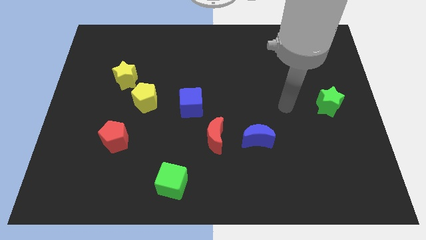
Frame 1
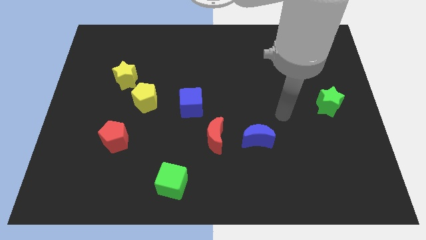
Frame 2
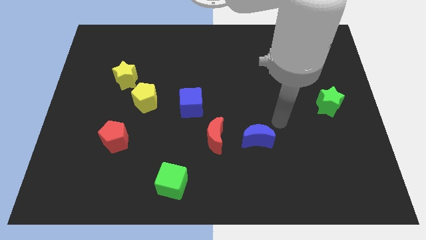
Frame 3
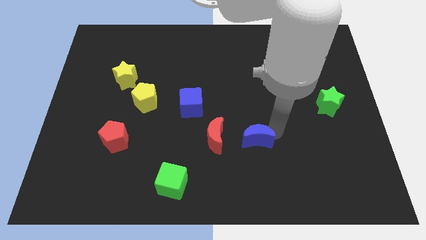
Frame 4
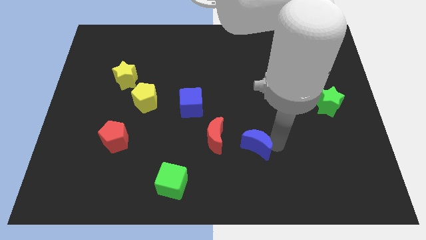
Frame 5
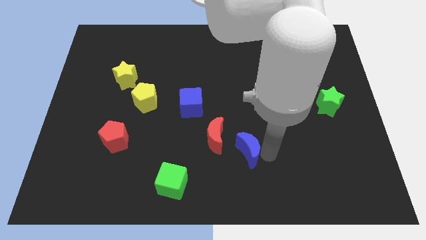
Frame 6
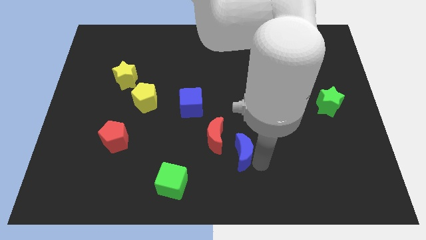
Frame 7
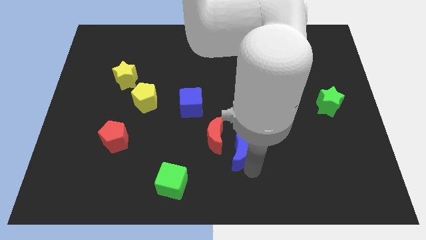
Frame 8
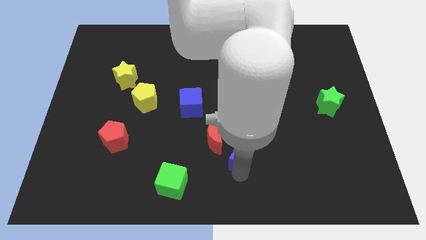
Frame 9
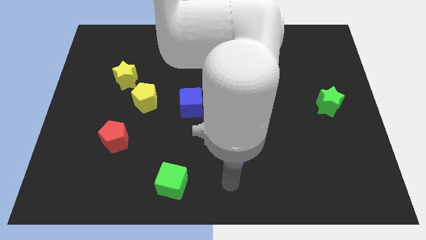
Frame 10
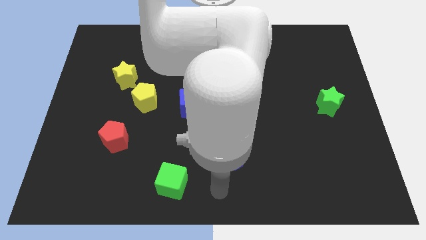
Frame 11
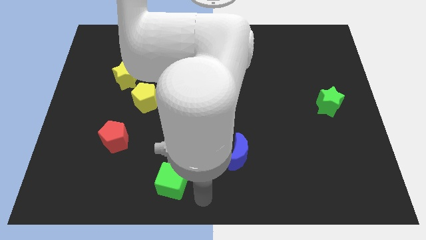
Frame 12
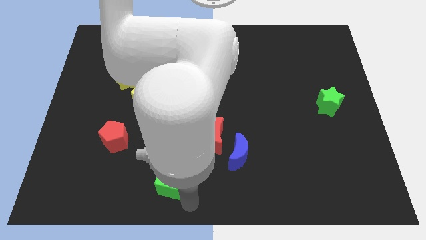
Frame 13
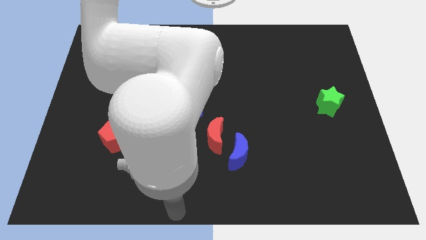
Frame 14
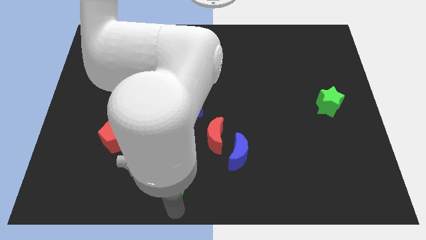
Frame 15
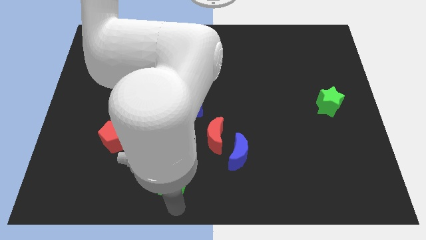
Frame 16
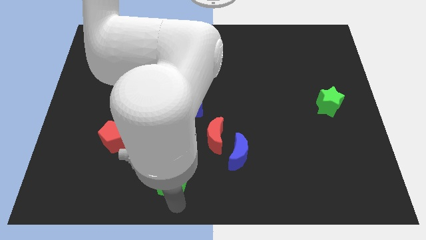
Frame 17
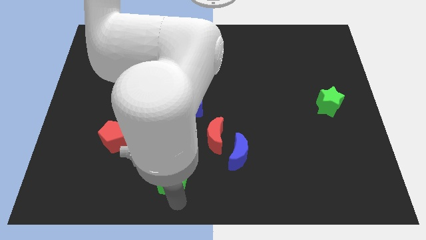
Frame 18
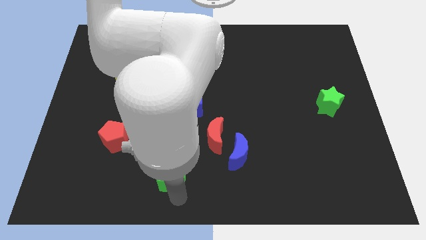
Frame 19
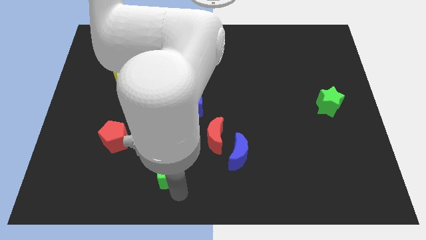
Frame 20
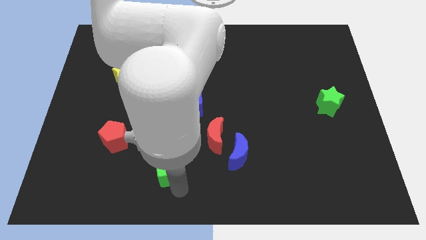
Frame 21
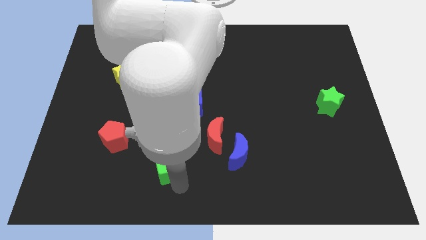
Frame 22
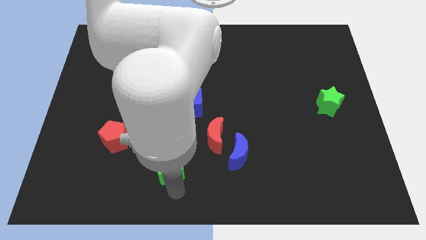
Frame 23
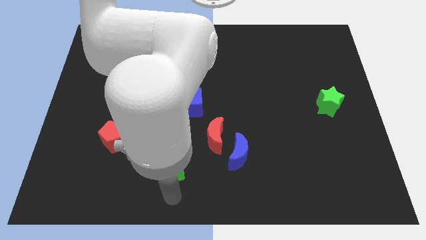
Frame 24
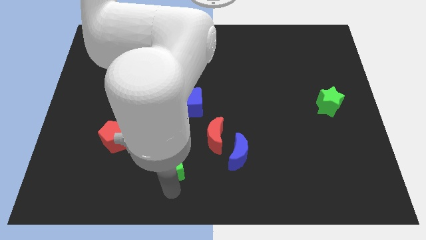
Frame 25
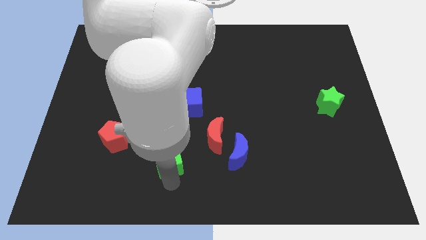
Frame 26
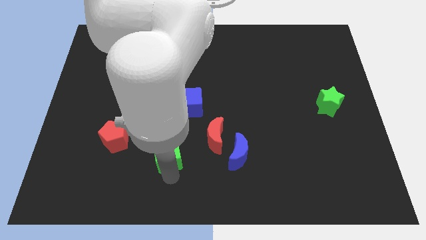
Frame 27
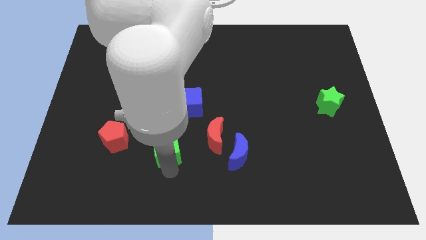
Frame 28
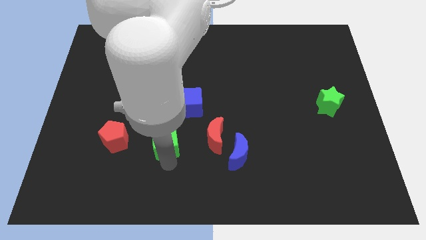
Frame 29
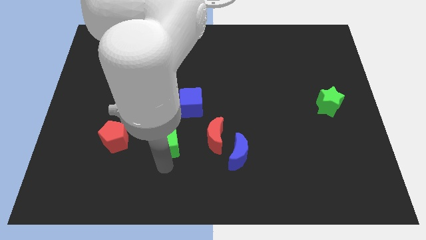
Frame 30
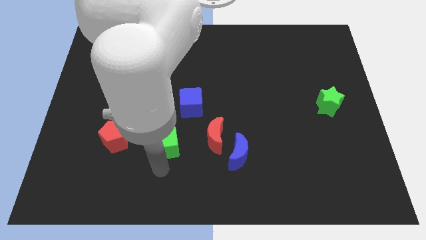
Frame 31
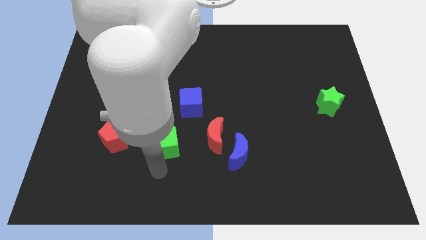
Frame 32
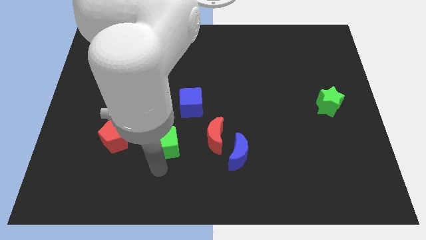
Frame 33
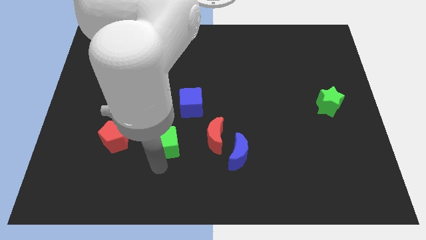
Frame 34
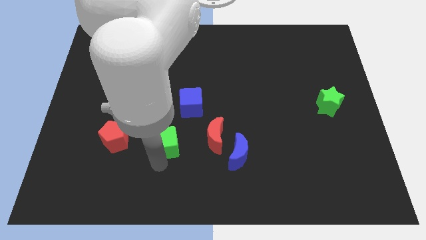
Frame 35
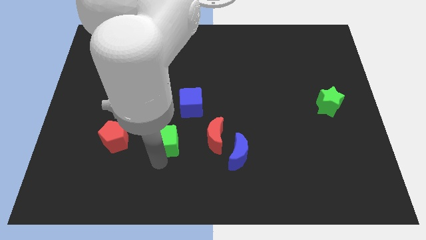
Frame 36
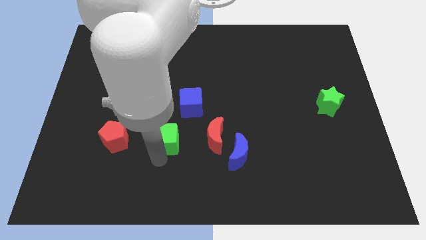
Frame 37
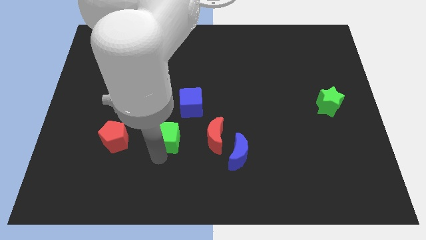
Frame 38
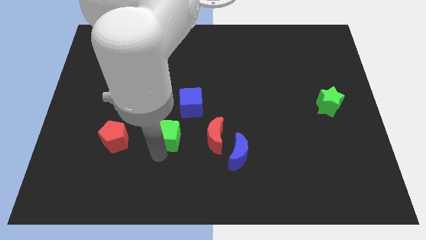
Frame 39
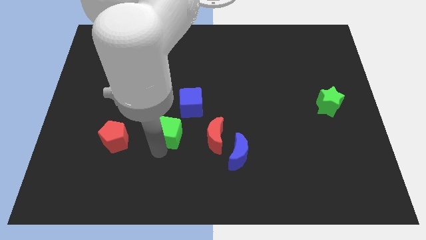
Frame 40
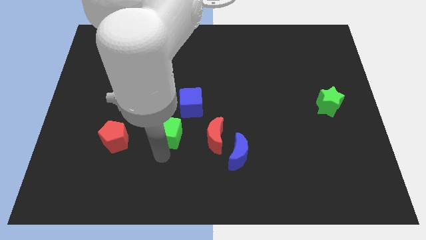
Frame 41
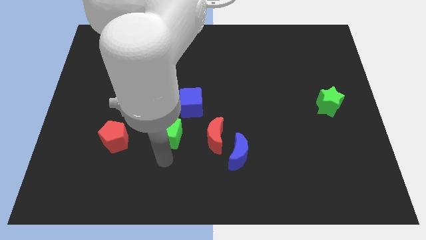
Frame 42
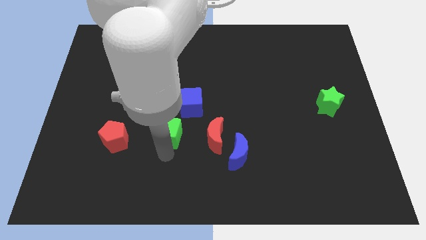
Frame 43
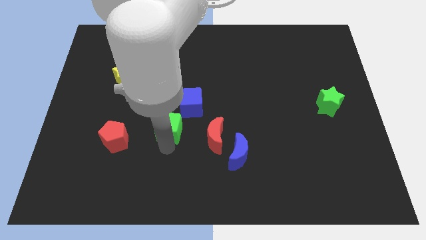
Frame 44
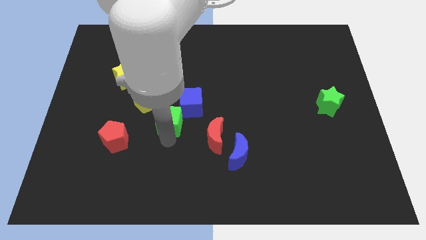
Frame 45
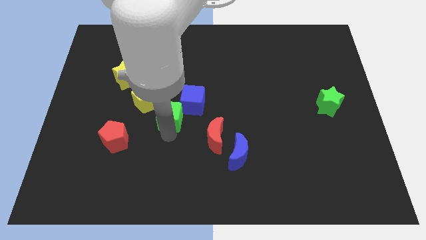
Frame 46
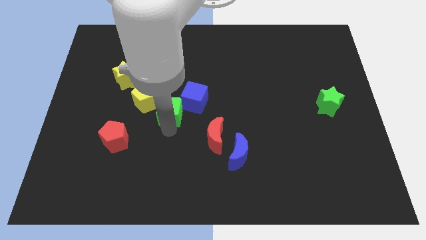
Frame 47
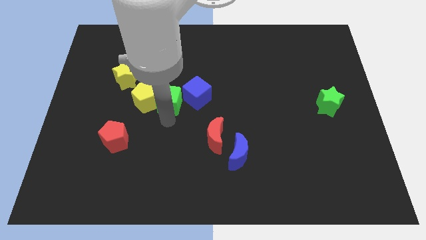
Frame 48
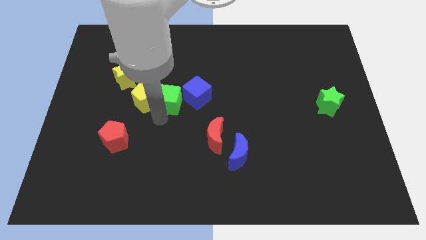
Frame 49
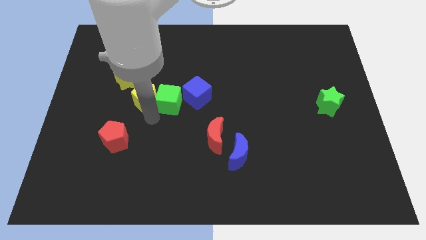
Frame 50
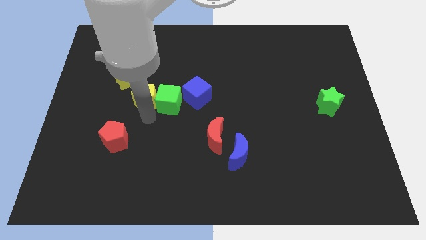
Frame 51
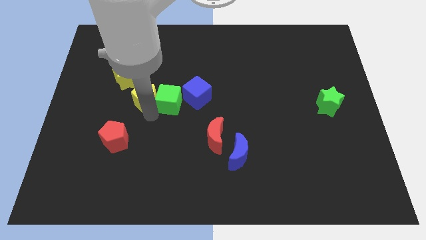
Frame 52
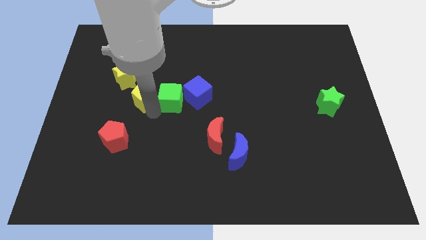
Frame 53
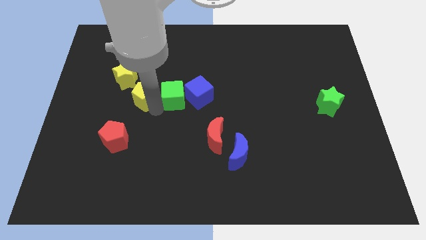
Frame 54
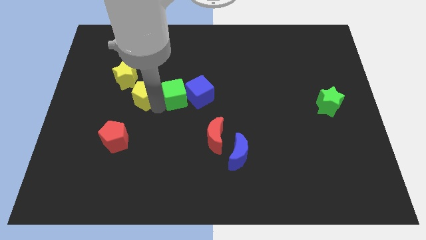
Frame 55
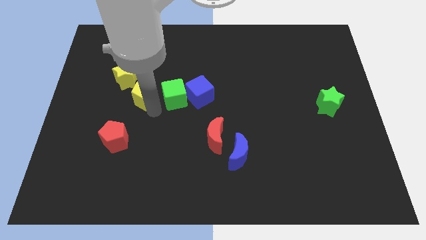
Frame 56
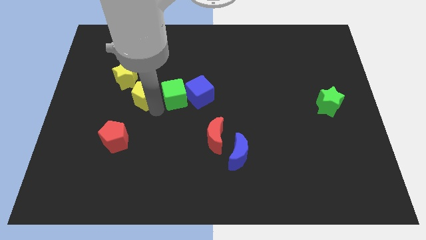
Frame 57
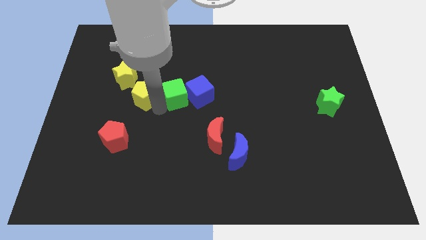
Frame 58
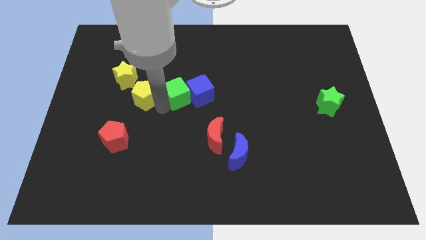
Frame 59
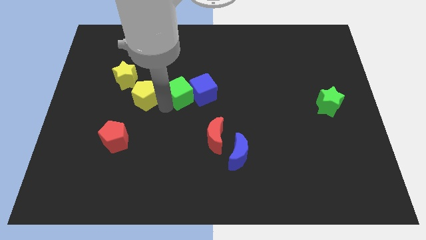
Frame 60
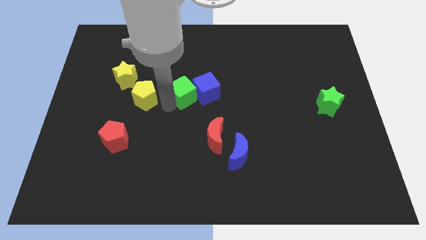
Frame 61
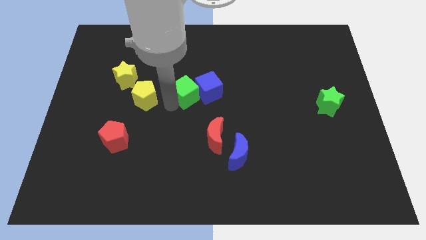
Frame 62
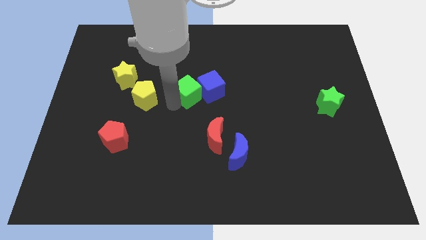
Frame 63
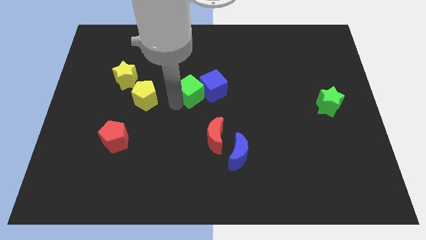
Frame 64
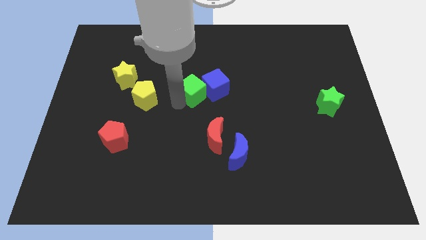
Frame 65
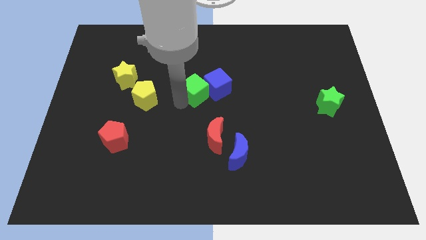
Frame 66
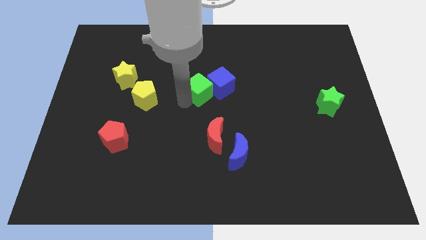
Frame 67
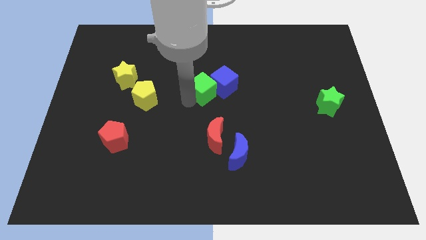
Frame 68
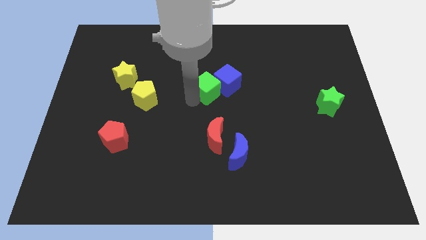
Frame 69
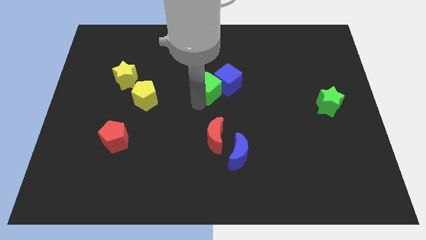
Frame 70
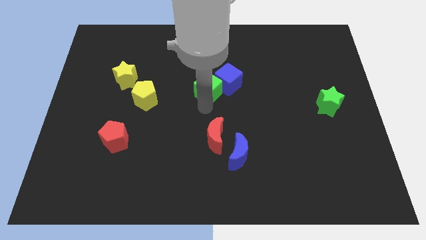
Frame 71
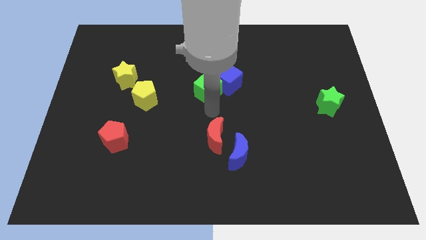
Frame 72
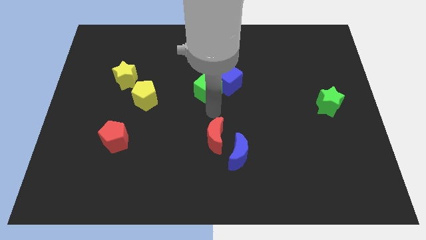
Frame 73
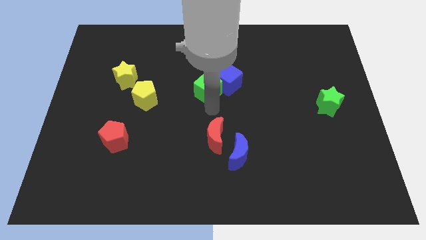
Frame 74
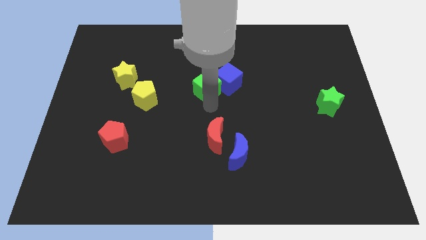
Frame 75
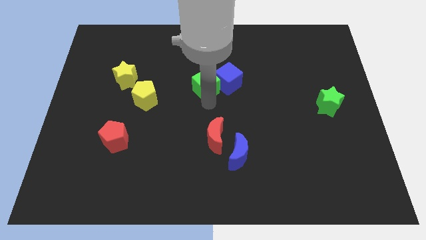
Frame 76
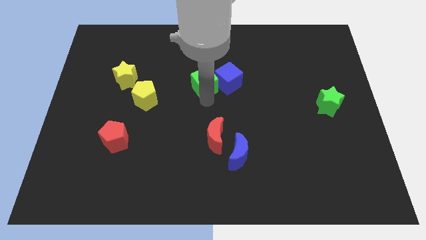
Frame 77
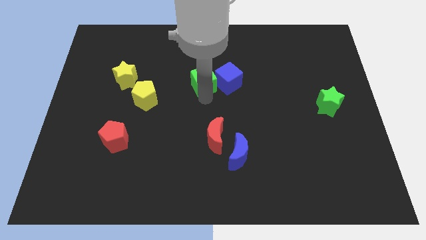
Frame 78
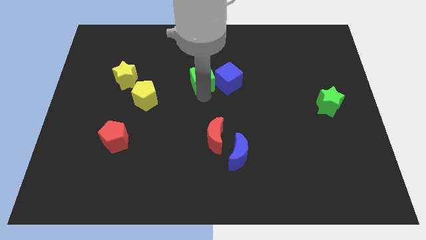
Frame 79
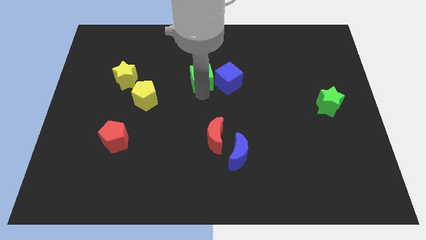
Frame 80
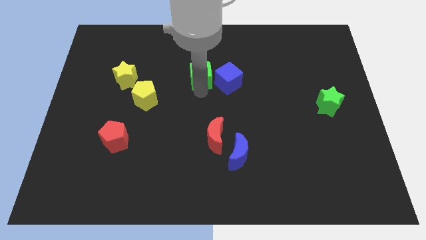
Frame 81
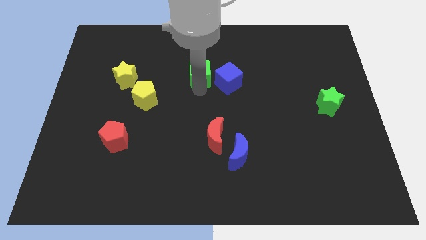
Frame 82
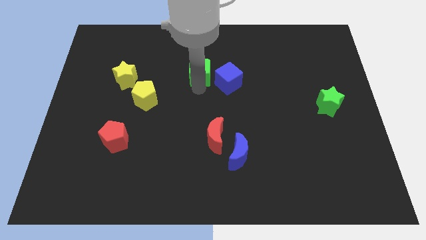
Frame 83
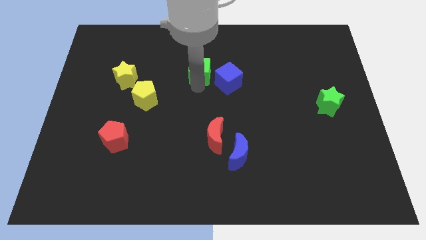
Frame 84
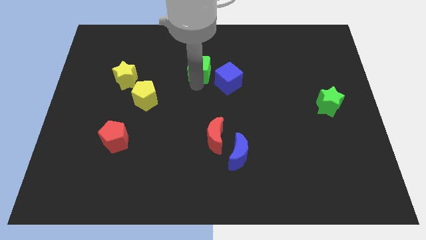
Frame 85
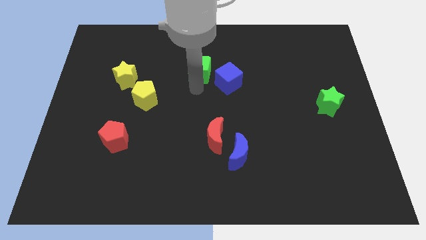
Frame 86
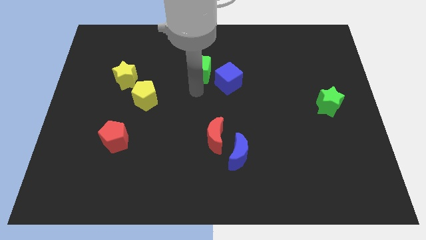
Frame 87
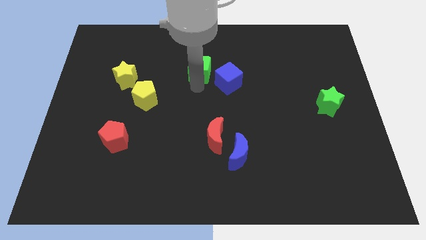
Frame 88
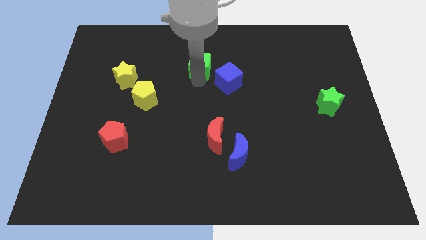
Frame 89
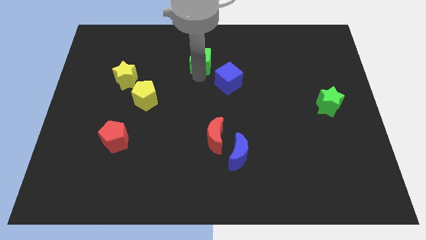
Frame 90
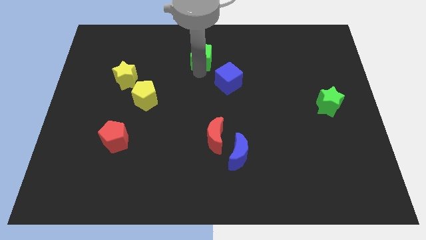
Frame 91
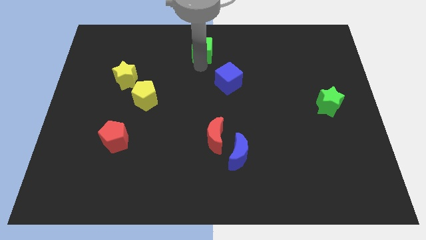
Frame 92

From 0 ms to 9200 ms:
put the green cube to the towards your base
